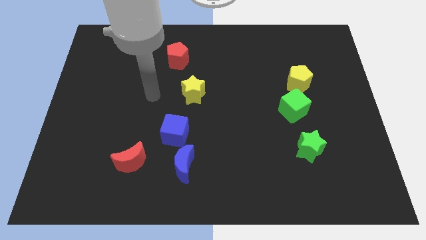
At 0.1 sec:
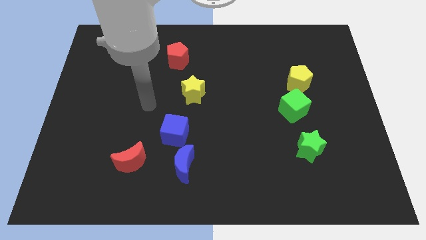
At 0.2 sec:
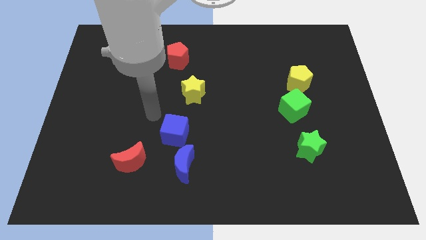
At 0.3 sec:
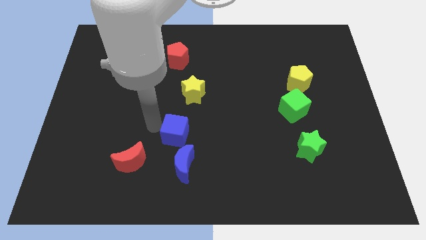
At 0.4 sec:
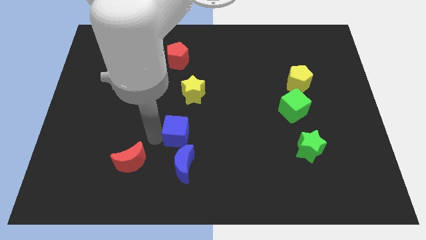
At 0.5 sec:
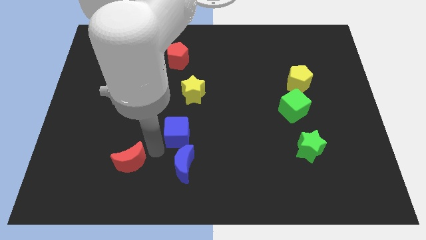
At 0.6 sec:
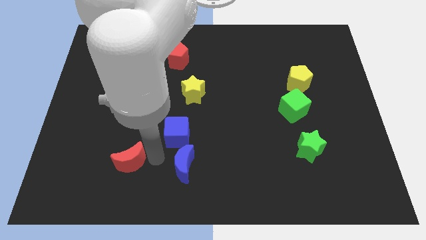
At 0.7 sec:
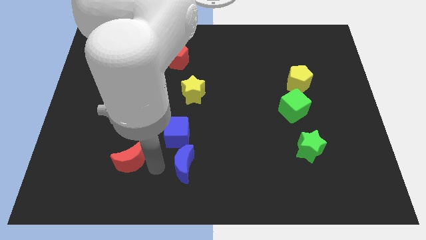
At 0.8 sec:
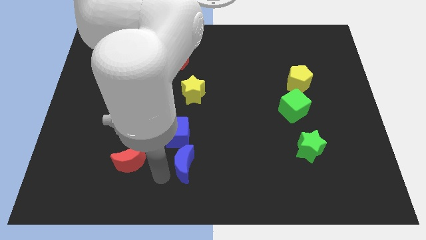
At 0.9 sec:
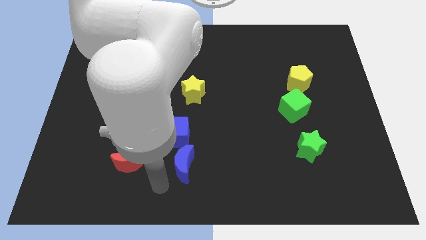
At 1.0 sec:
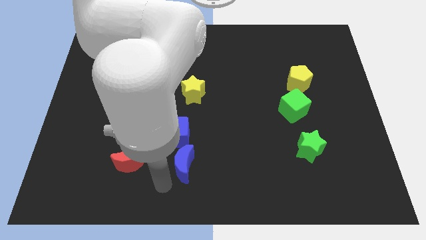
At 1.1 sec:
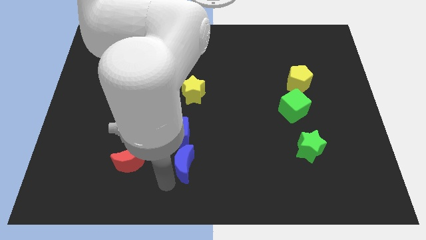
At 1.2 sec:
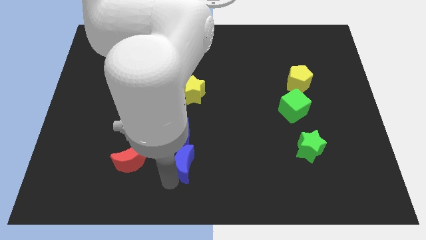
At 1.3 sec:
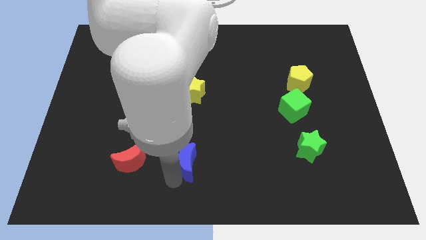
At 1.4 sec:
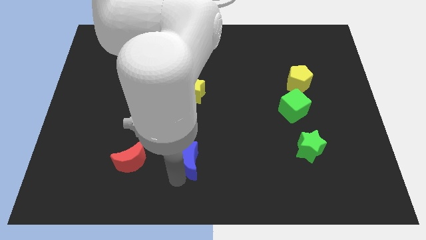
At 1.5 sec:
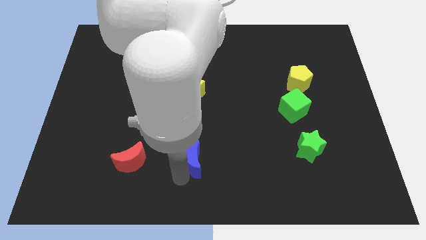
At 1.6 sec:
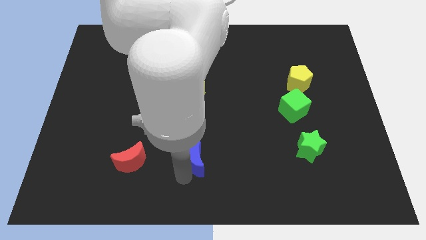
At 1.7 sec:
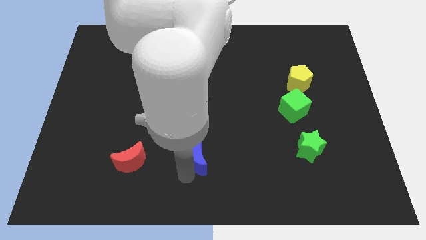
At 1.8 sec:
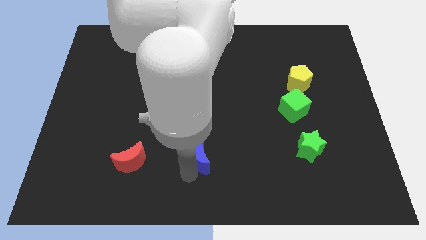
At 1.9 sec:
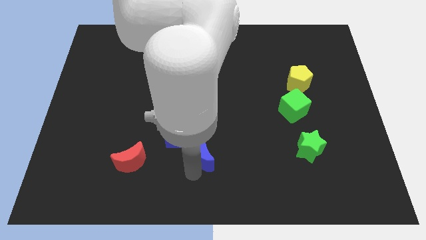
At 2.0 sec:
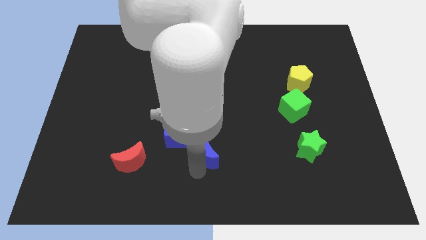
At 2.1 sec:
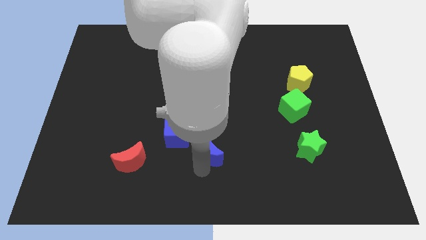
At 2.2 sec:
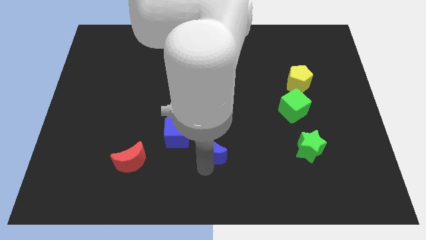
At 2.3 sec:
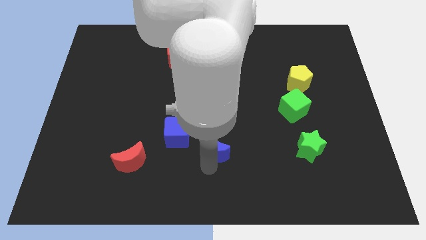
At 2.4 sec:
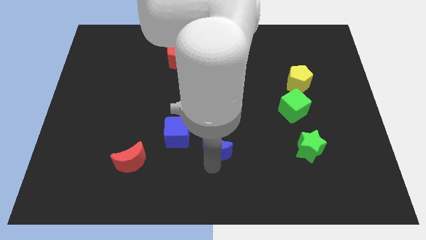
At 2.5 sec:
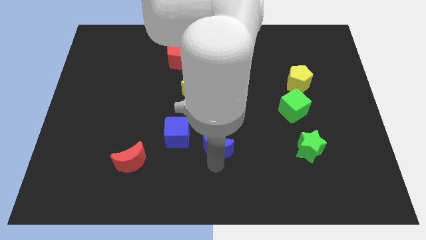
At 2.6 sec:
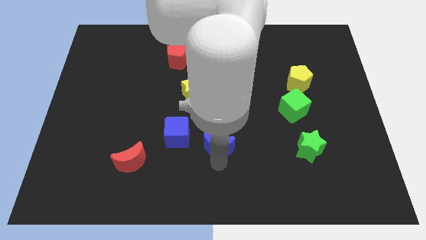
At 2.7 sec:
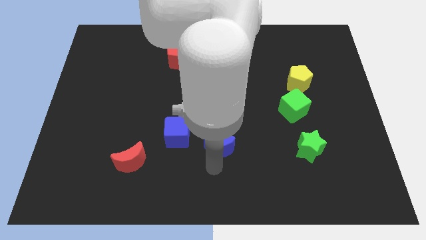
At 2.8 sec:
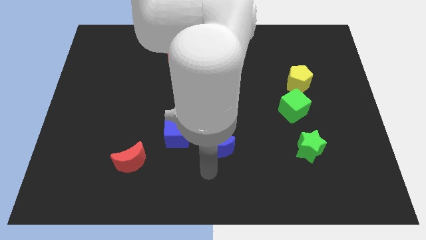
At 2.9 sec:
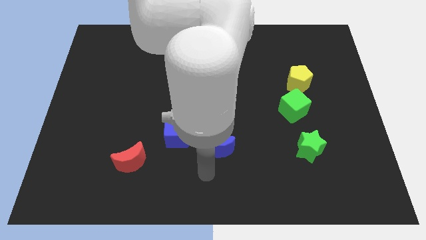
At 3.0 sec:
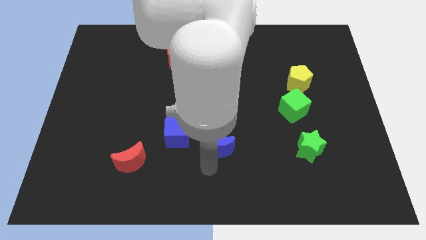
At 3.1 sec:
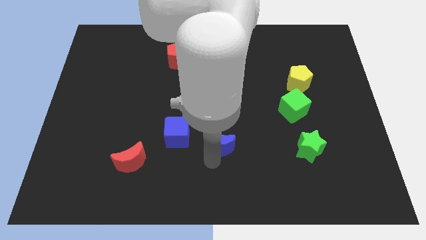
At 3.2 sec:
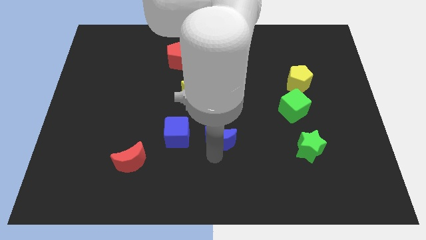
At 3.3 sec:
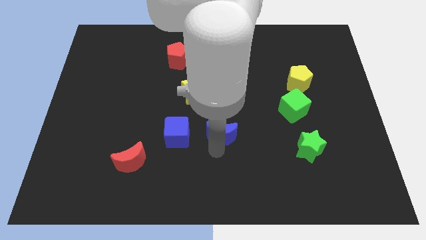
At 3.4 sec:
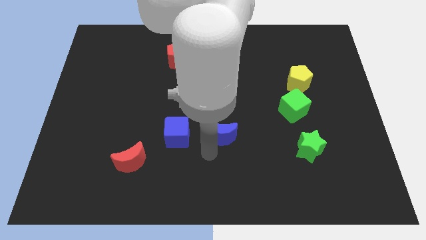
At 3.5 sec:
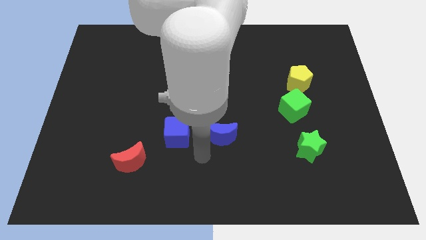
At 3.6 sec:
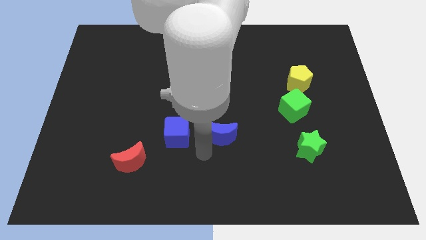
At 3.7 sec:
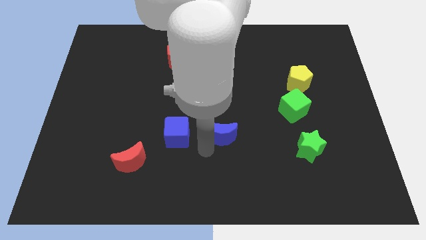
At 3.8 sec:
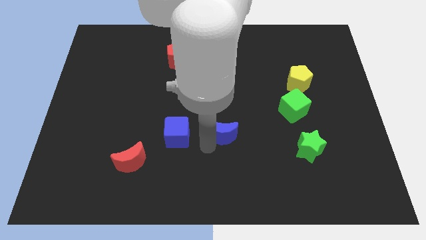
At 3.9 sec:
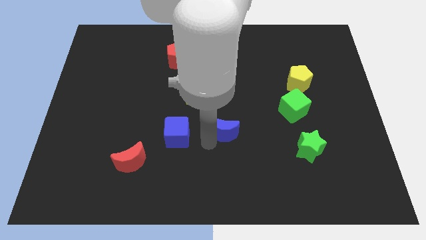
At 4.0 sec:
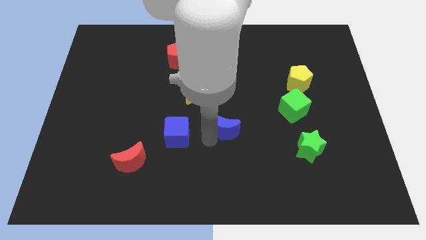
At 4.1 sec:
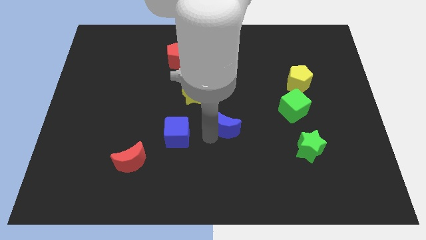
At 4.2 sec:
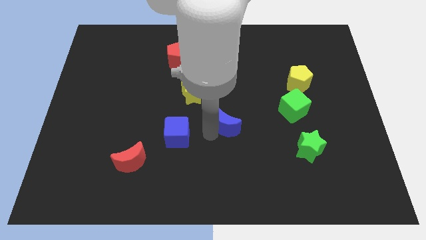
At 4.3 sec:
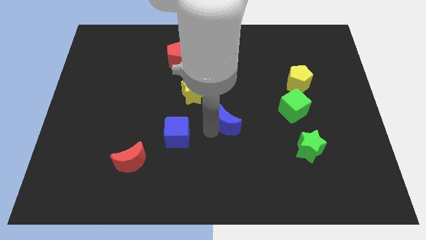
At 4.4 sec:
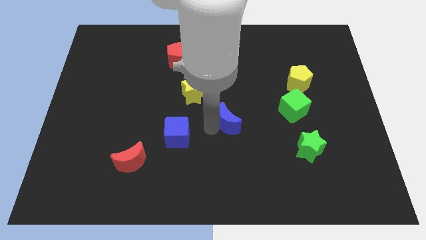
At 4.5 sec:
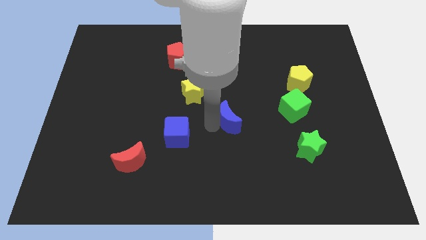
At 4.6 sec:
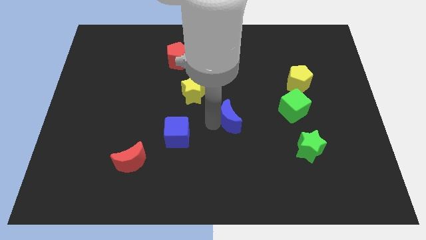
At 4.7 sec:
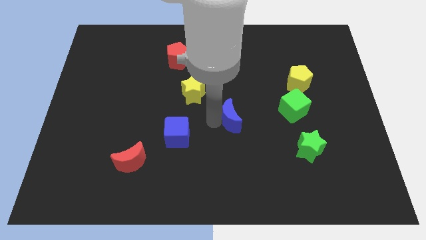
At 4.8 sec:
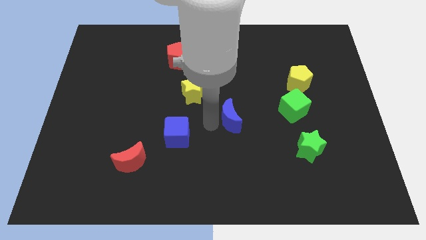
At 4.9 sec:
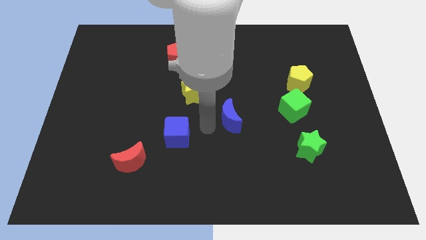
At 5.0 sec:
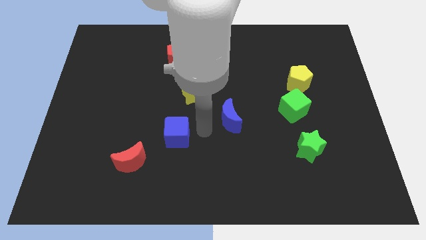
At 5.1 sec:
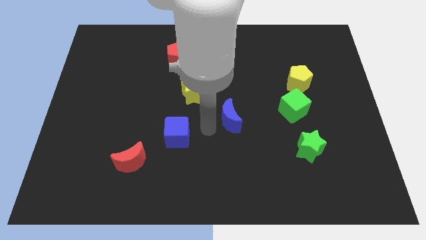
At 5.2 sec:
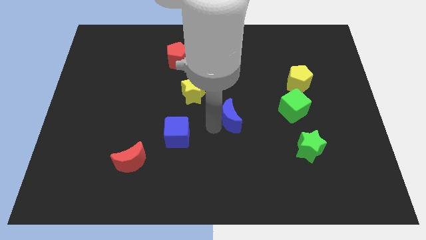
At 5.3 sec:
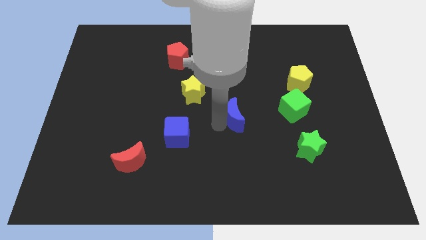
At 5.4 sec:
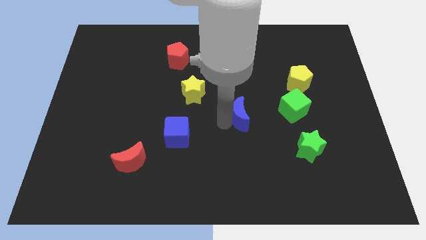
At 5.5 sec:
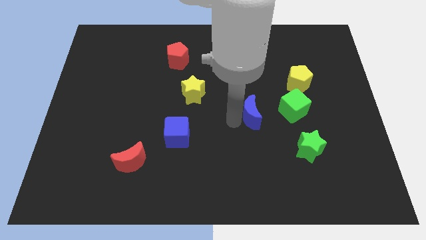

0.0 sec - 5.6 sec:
push the blue moon upwards and to the right diagonally

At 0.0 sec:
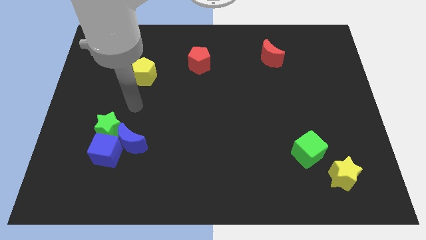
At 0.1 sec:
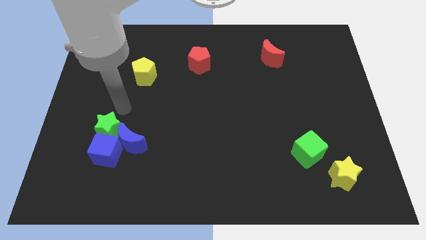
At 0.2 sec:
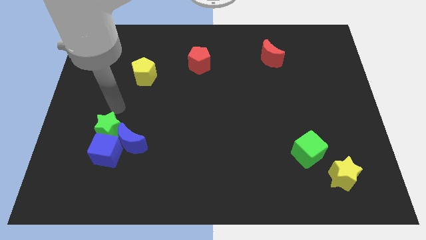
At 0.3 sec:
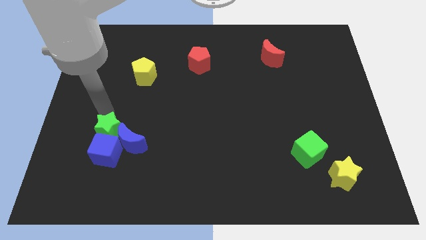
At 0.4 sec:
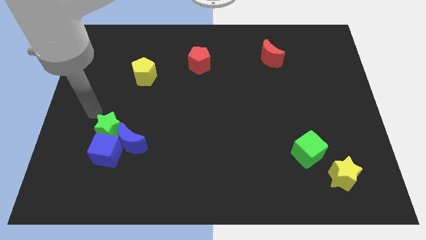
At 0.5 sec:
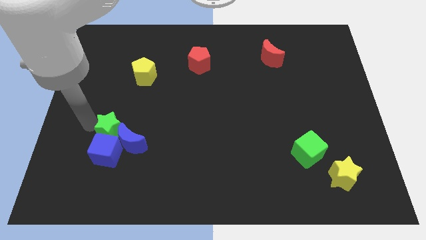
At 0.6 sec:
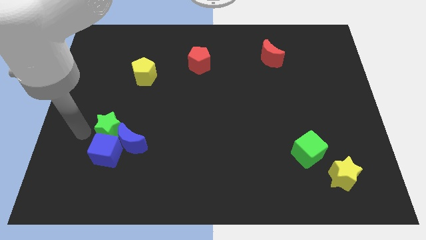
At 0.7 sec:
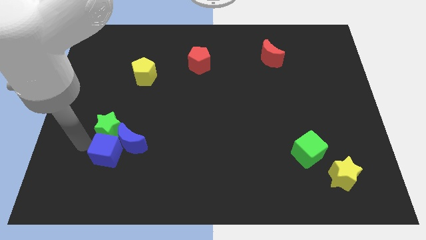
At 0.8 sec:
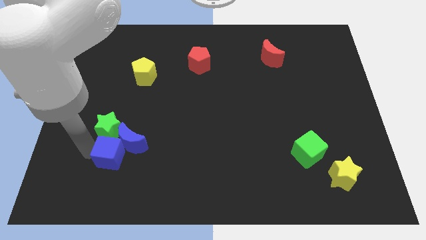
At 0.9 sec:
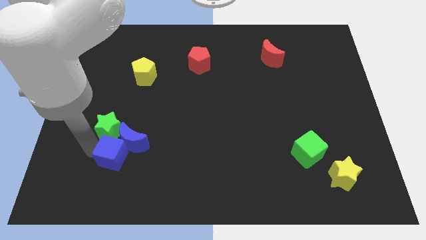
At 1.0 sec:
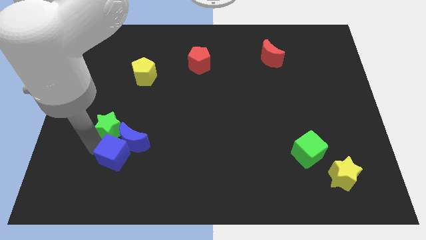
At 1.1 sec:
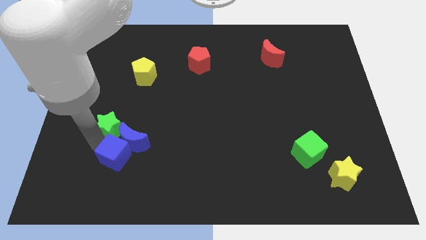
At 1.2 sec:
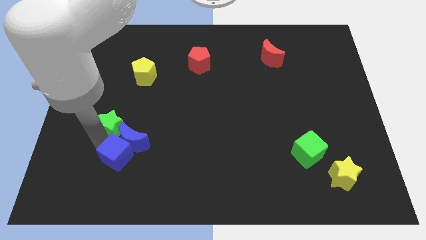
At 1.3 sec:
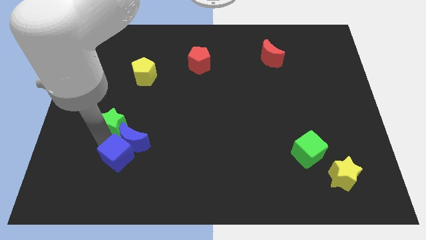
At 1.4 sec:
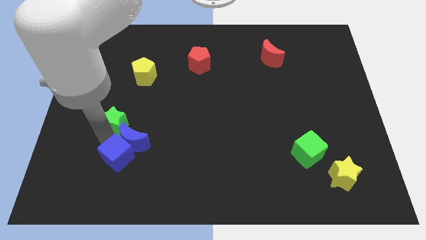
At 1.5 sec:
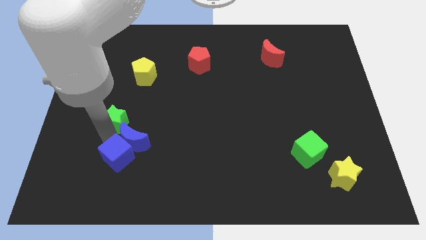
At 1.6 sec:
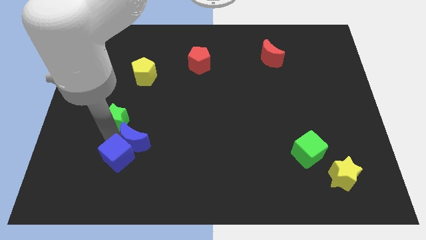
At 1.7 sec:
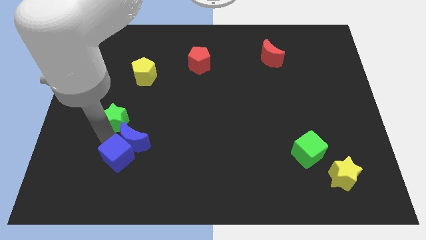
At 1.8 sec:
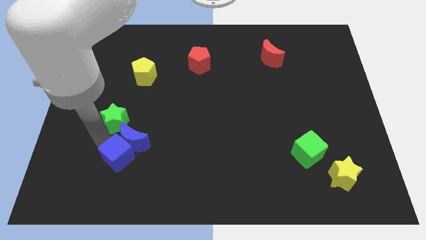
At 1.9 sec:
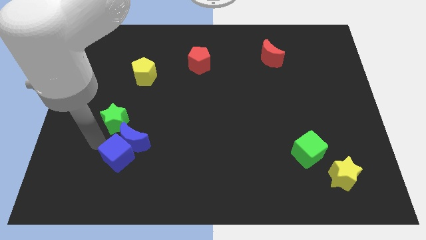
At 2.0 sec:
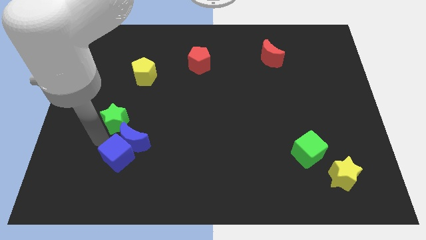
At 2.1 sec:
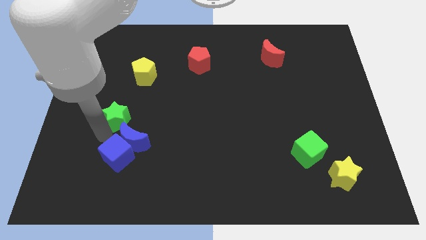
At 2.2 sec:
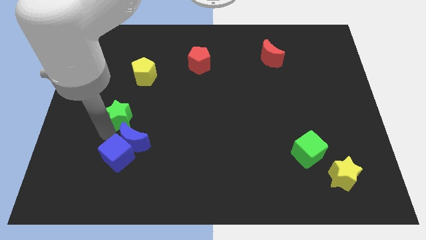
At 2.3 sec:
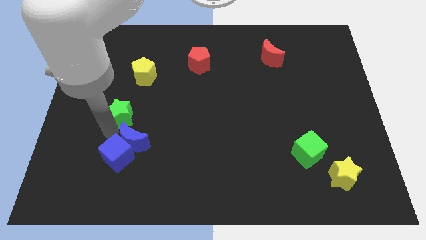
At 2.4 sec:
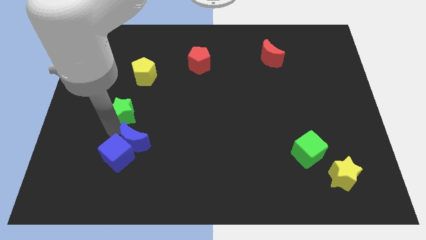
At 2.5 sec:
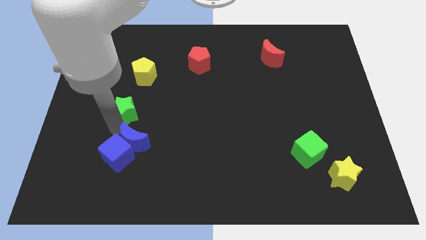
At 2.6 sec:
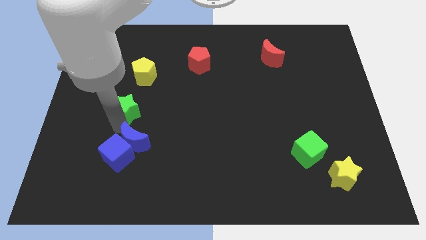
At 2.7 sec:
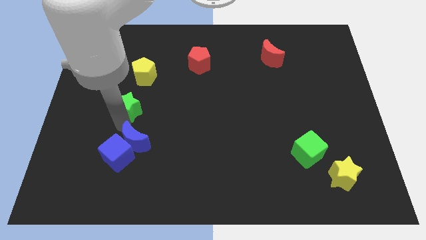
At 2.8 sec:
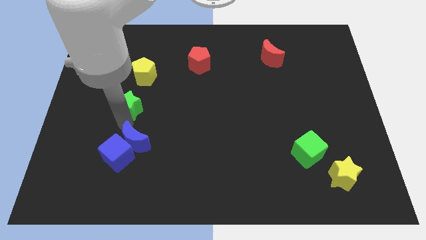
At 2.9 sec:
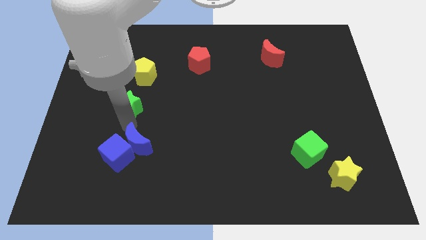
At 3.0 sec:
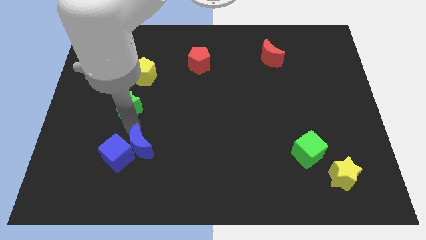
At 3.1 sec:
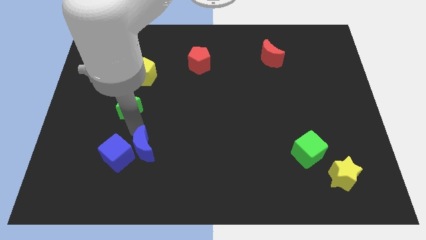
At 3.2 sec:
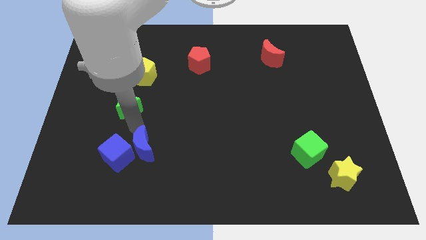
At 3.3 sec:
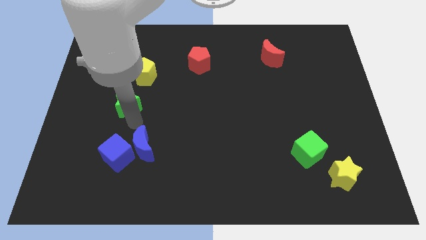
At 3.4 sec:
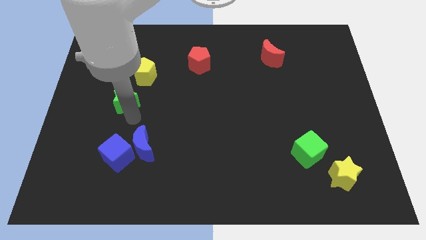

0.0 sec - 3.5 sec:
slightly slide the green star upwards
